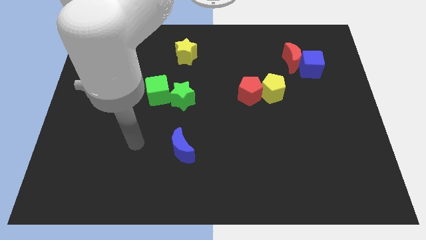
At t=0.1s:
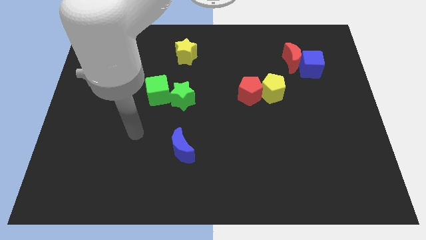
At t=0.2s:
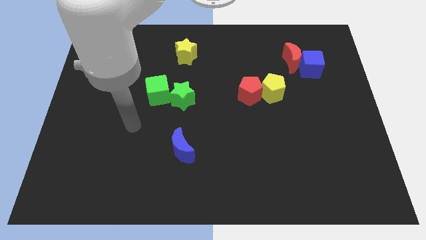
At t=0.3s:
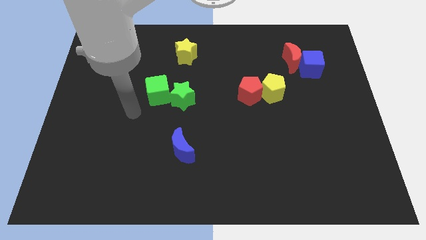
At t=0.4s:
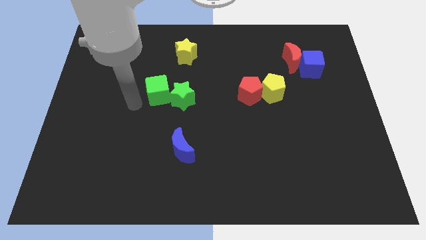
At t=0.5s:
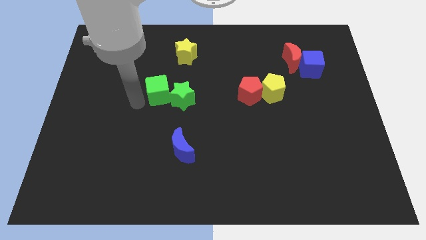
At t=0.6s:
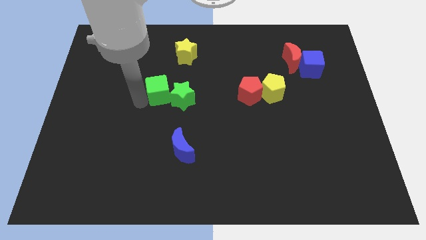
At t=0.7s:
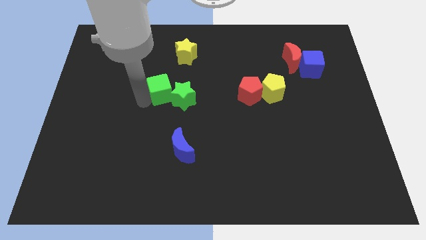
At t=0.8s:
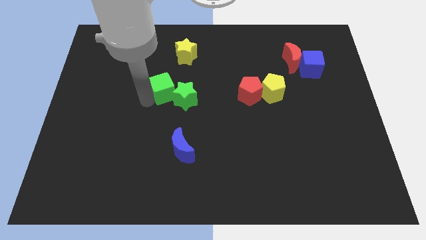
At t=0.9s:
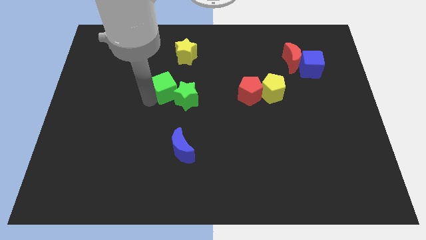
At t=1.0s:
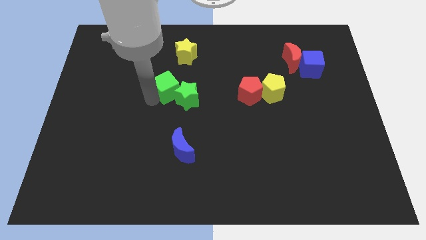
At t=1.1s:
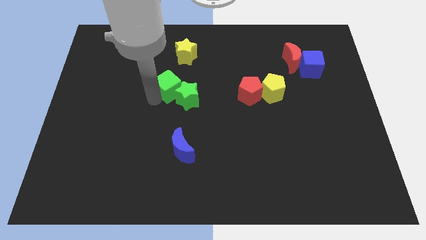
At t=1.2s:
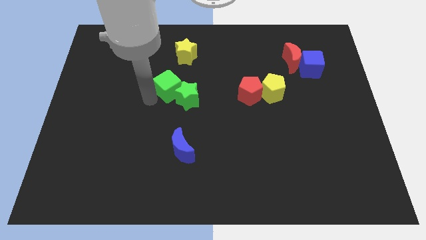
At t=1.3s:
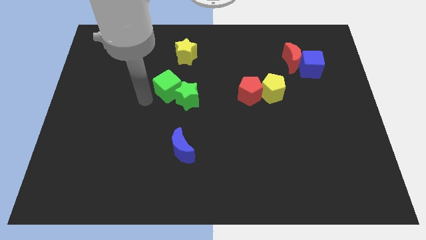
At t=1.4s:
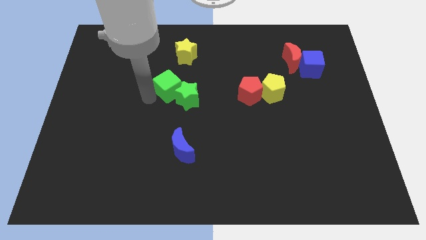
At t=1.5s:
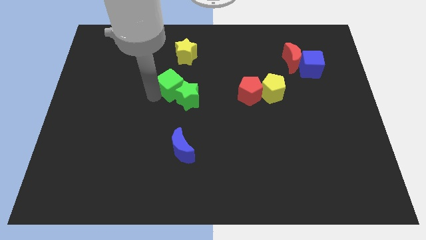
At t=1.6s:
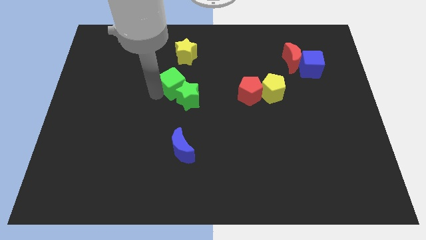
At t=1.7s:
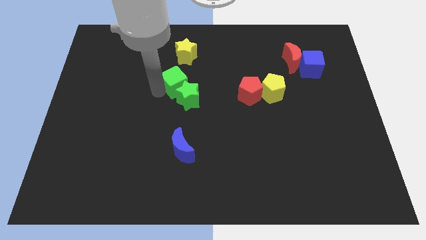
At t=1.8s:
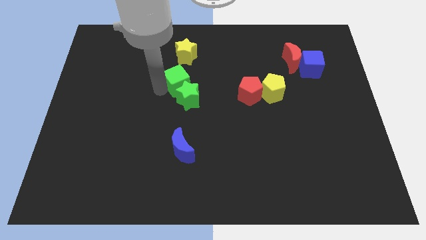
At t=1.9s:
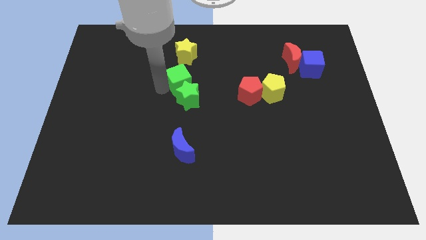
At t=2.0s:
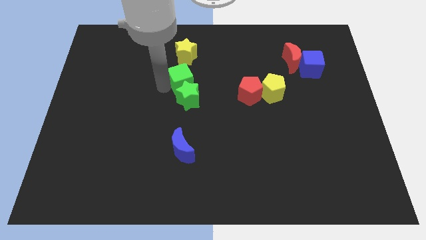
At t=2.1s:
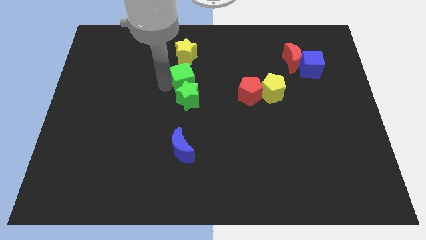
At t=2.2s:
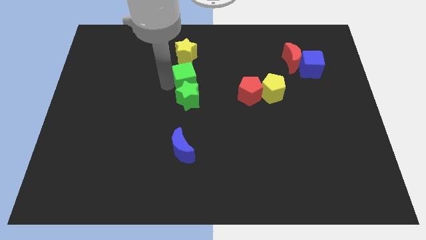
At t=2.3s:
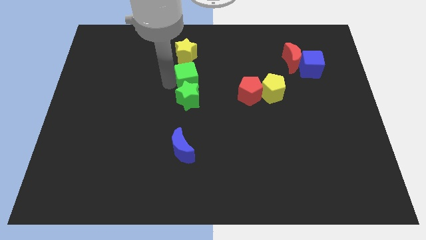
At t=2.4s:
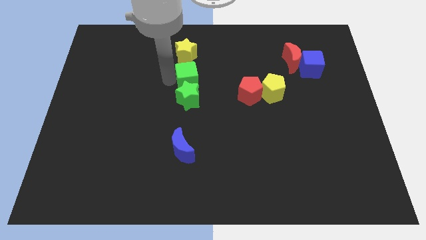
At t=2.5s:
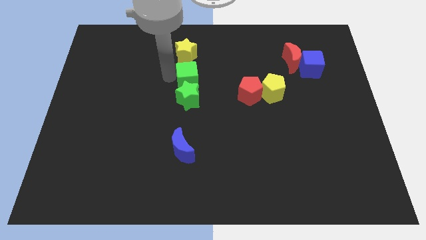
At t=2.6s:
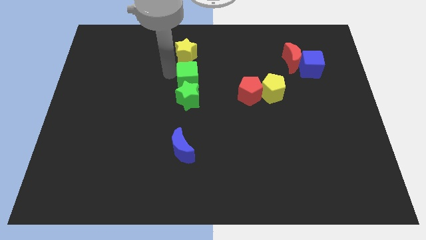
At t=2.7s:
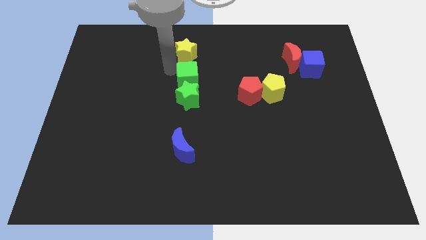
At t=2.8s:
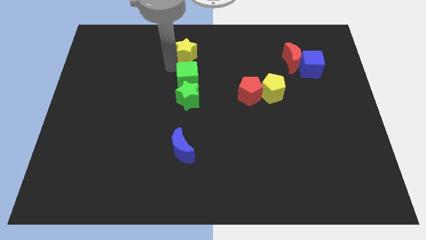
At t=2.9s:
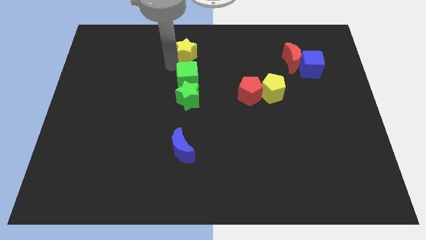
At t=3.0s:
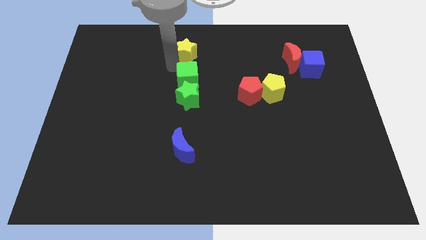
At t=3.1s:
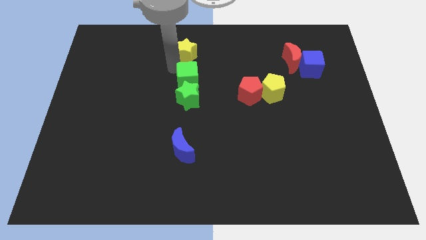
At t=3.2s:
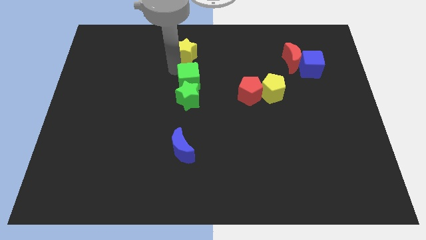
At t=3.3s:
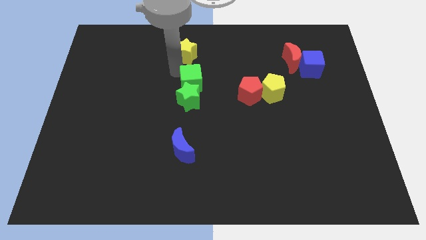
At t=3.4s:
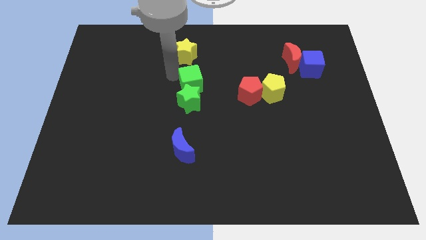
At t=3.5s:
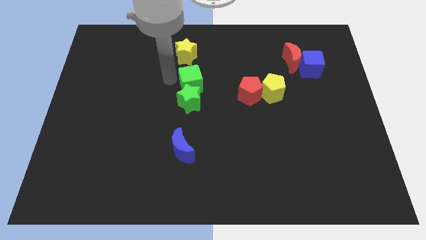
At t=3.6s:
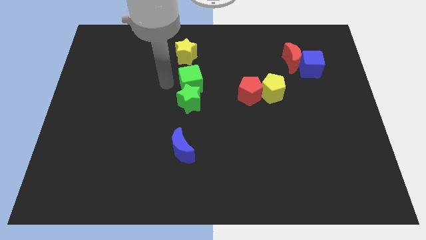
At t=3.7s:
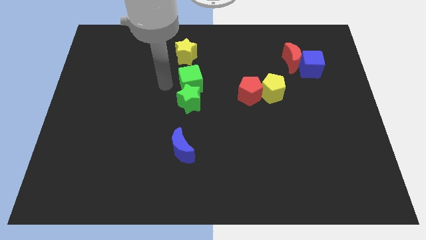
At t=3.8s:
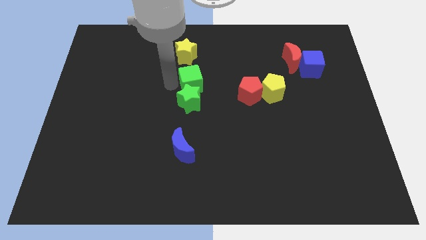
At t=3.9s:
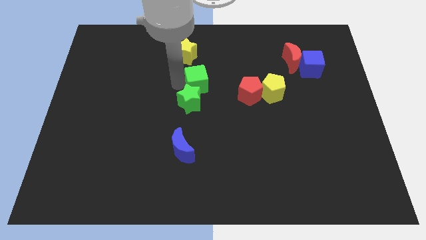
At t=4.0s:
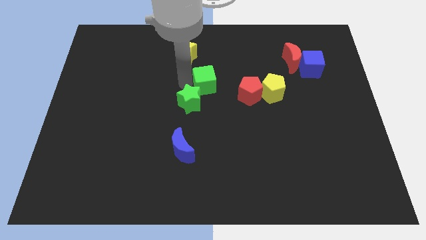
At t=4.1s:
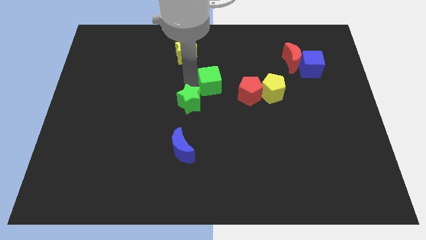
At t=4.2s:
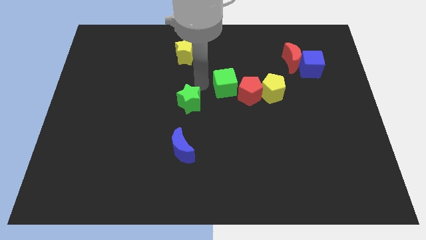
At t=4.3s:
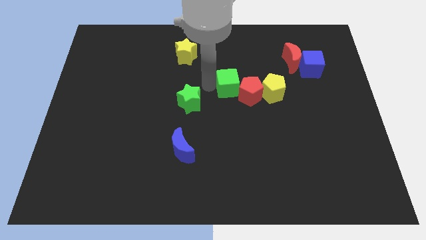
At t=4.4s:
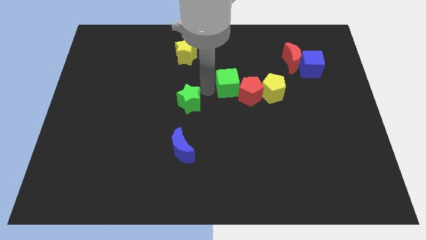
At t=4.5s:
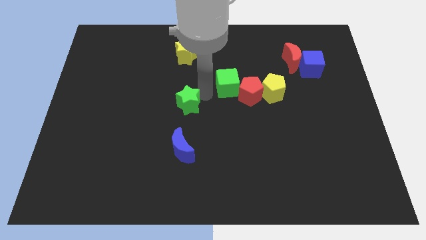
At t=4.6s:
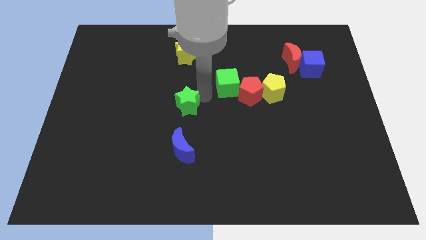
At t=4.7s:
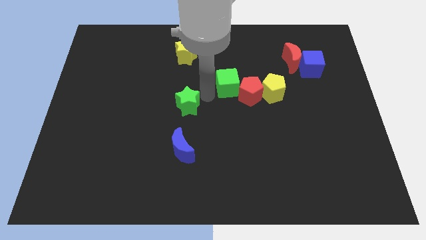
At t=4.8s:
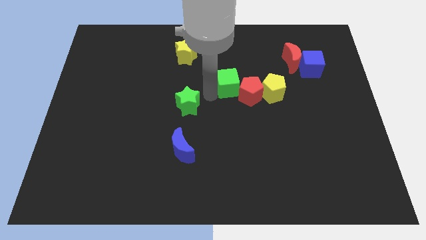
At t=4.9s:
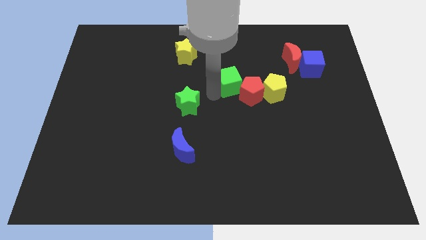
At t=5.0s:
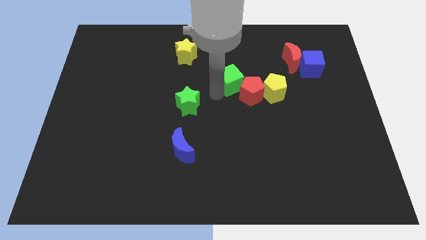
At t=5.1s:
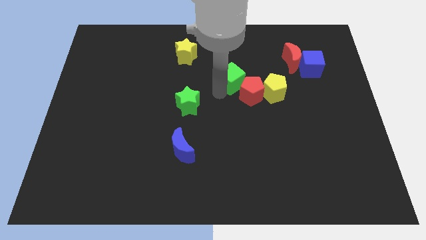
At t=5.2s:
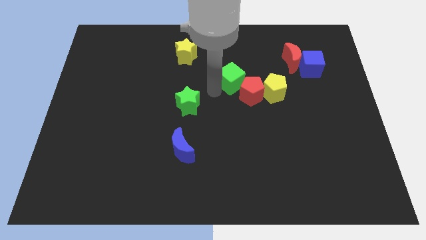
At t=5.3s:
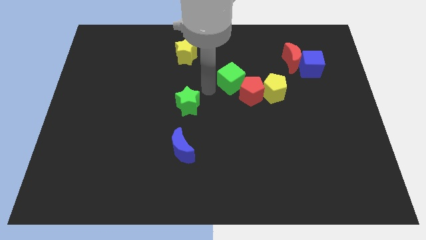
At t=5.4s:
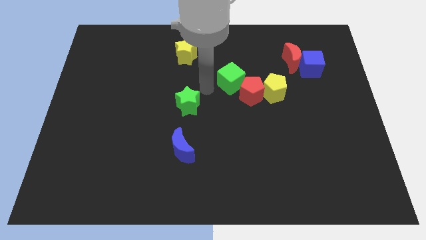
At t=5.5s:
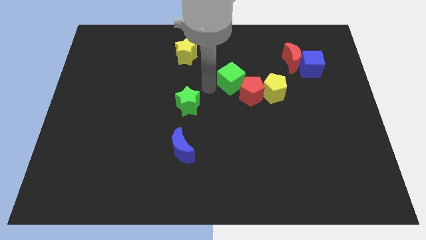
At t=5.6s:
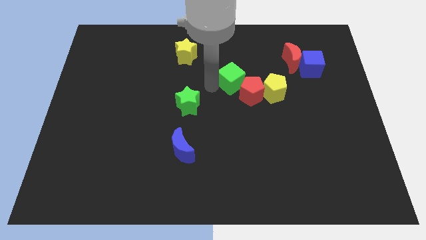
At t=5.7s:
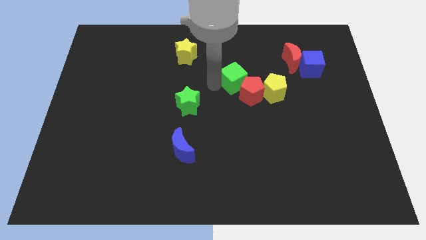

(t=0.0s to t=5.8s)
put the green cube to the top left side of the yellow pentagon

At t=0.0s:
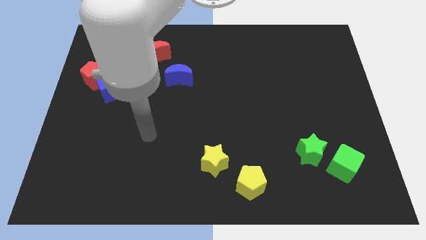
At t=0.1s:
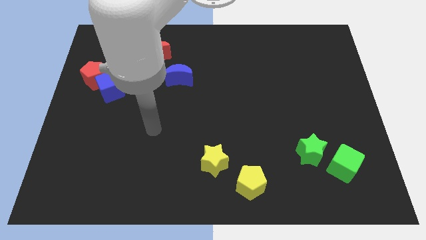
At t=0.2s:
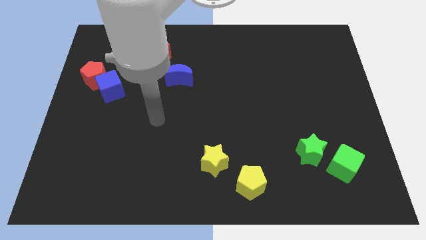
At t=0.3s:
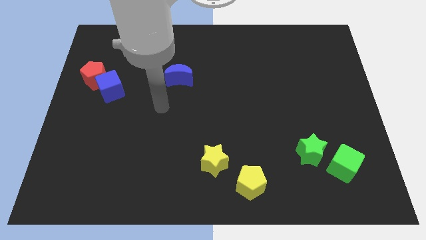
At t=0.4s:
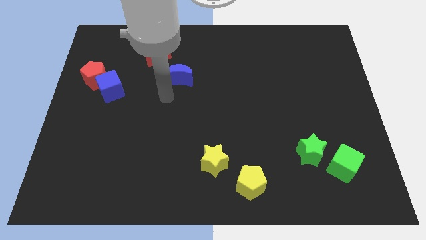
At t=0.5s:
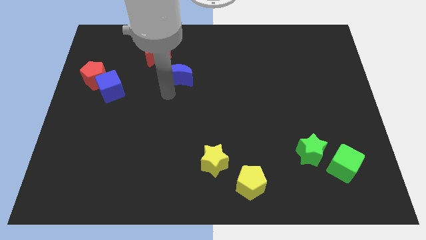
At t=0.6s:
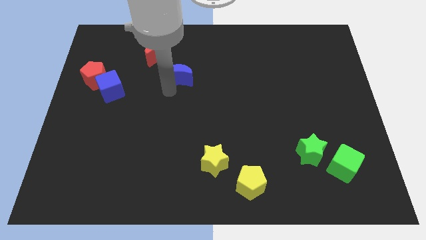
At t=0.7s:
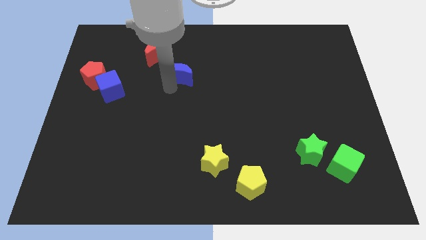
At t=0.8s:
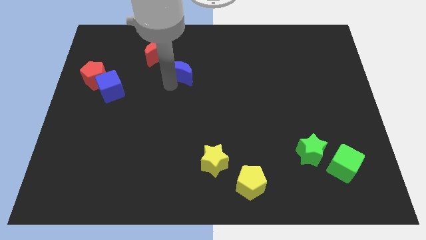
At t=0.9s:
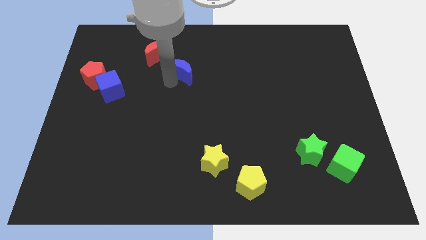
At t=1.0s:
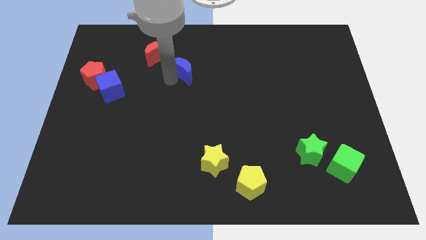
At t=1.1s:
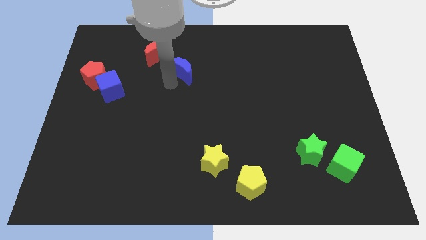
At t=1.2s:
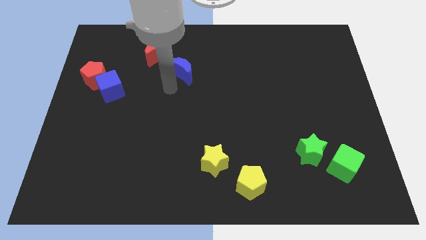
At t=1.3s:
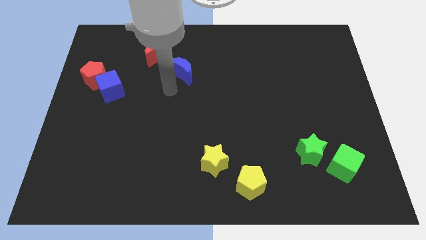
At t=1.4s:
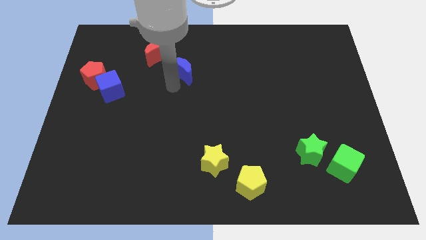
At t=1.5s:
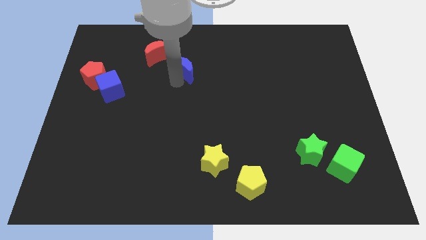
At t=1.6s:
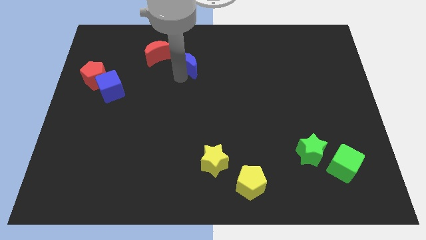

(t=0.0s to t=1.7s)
slide the blue moon right of the red moon

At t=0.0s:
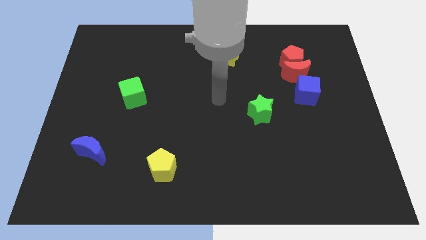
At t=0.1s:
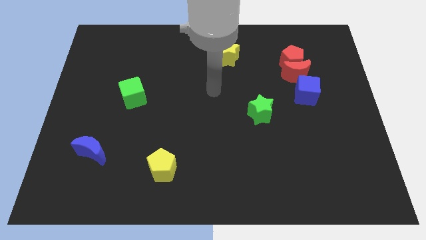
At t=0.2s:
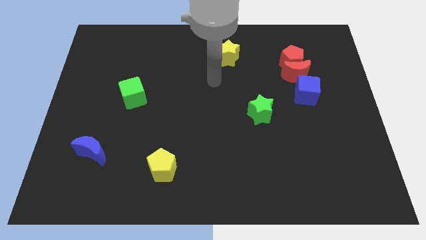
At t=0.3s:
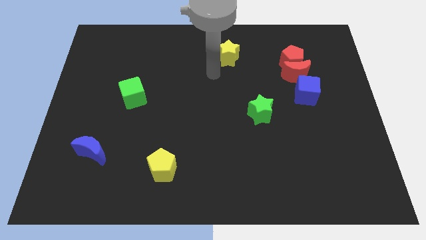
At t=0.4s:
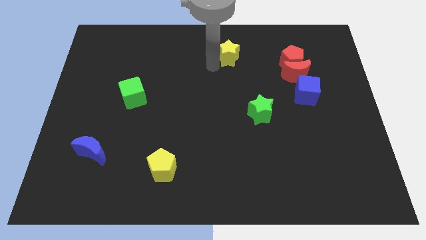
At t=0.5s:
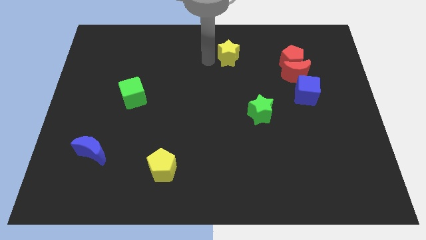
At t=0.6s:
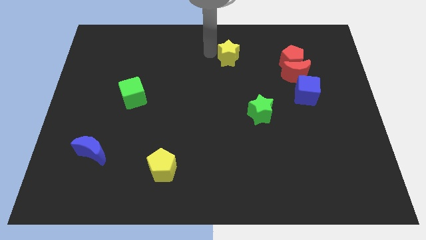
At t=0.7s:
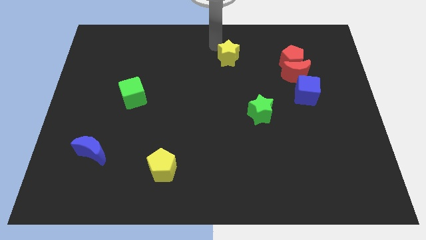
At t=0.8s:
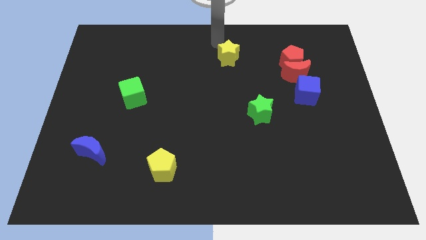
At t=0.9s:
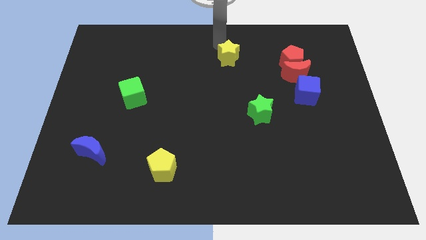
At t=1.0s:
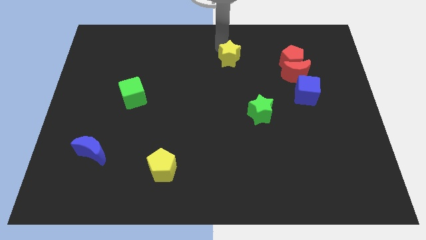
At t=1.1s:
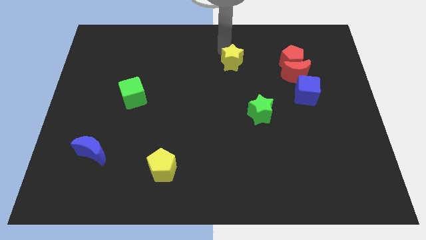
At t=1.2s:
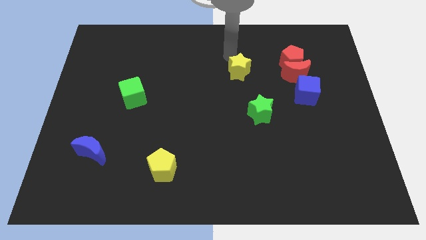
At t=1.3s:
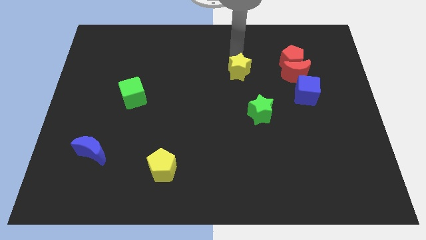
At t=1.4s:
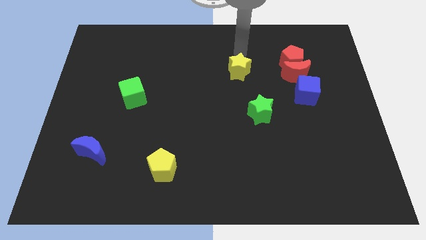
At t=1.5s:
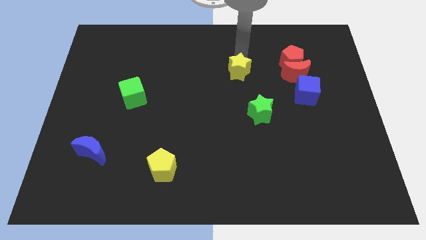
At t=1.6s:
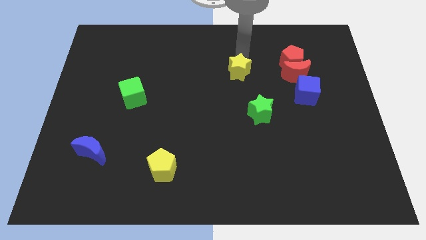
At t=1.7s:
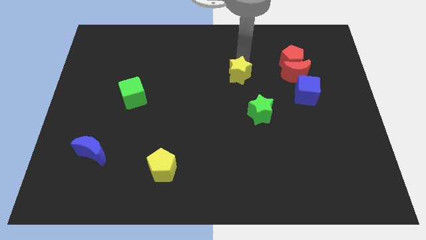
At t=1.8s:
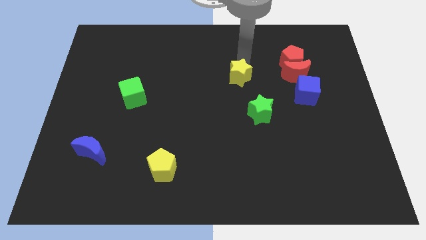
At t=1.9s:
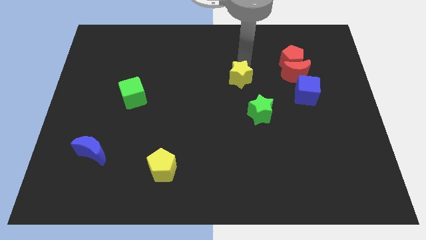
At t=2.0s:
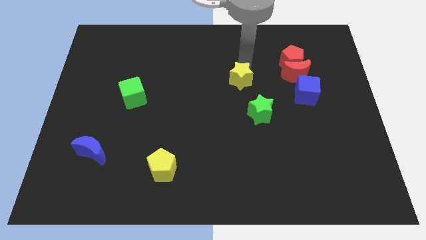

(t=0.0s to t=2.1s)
put the yellow star to the top left of the green star
